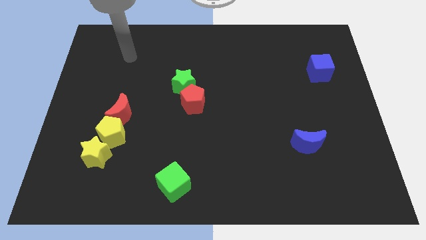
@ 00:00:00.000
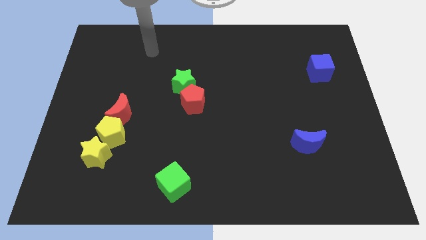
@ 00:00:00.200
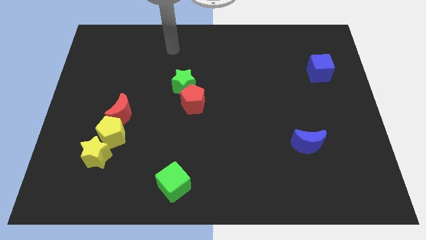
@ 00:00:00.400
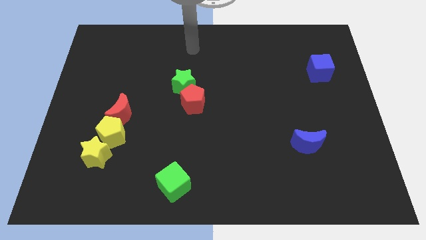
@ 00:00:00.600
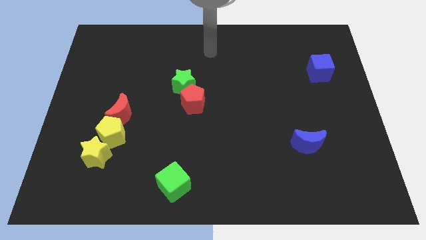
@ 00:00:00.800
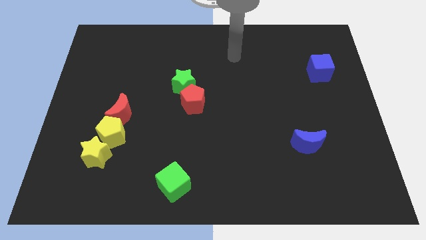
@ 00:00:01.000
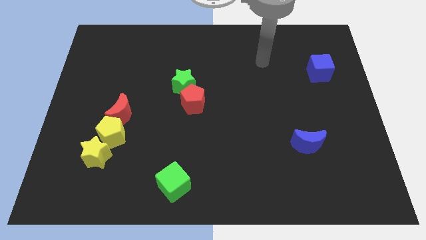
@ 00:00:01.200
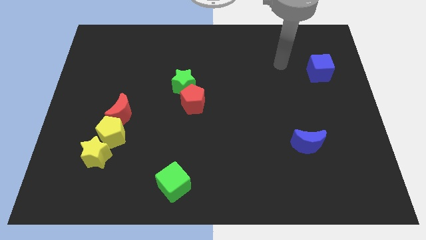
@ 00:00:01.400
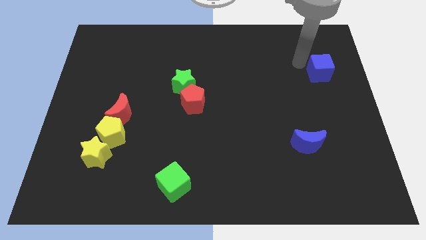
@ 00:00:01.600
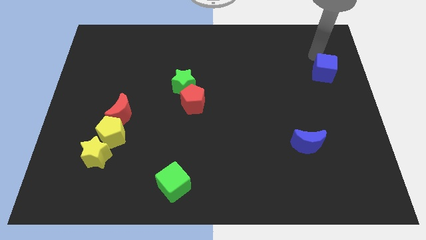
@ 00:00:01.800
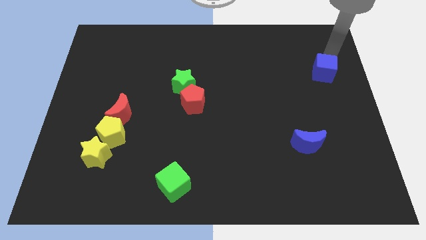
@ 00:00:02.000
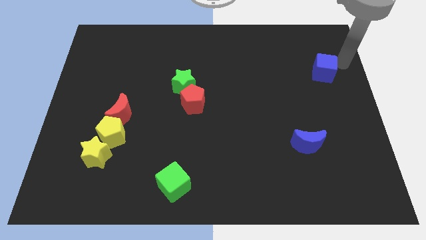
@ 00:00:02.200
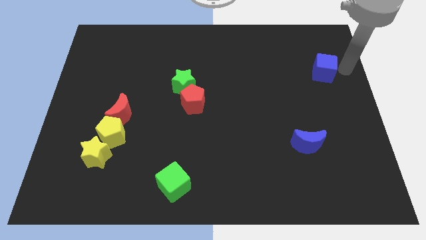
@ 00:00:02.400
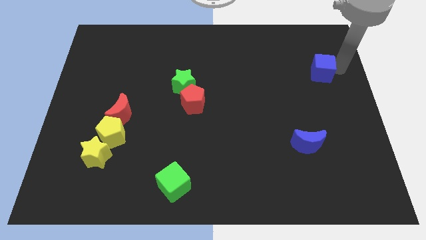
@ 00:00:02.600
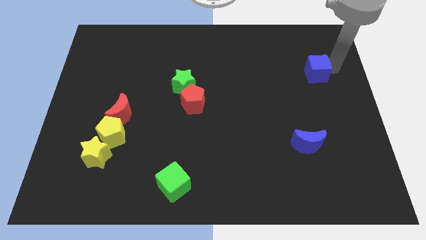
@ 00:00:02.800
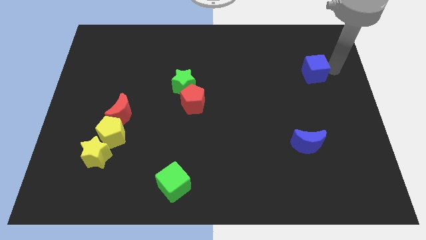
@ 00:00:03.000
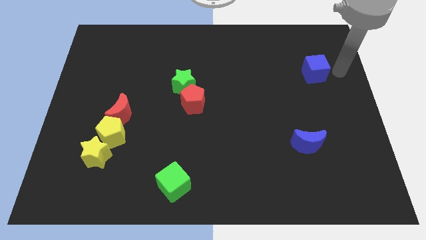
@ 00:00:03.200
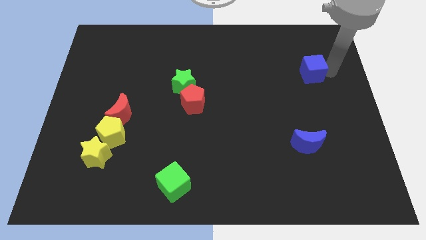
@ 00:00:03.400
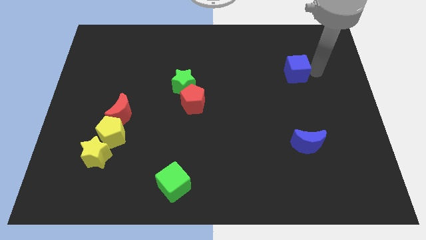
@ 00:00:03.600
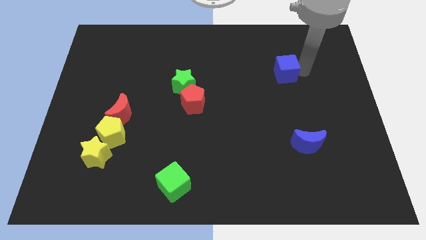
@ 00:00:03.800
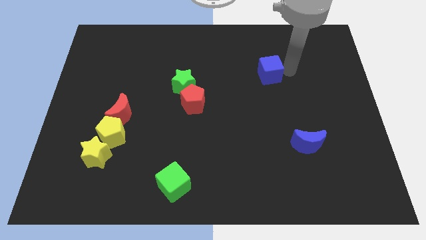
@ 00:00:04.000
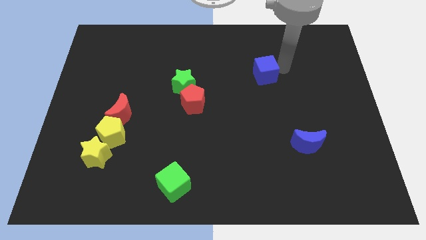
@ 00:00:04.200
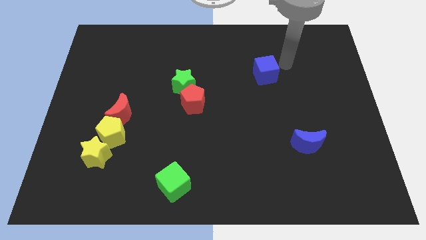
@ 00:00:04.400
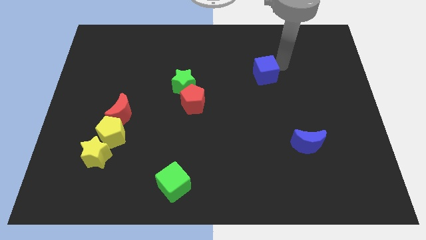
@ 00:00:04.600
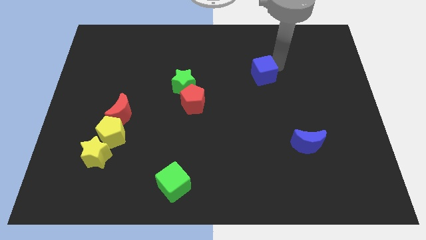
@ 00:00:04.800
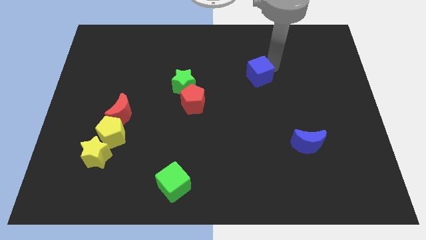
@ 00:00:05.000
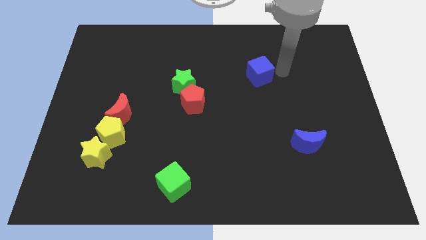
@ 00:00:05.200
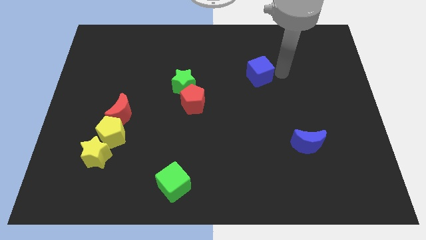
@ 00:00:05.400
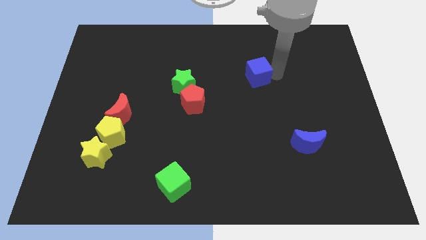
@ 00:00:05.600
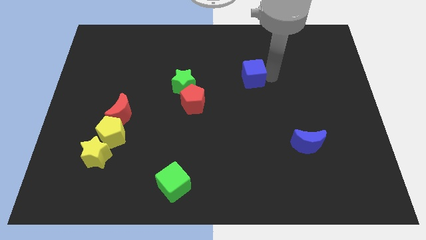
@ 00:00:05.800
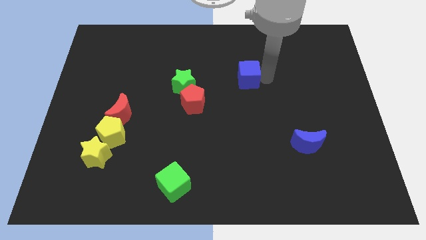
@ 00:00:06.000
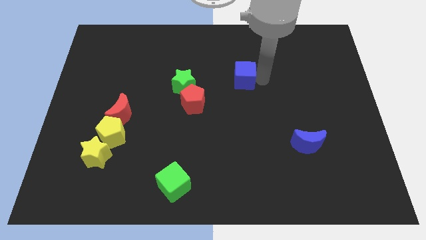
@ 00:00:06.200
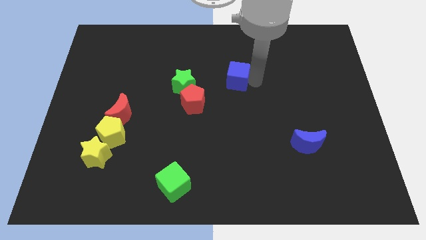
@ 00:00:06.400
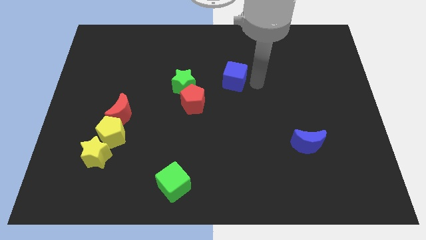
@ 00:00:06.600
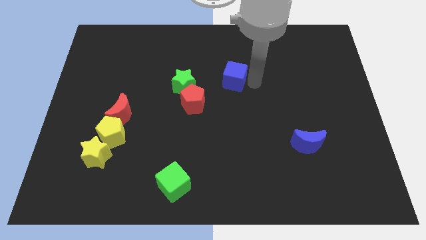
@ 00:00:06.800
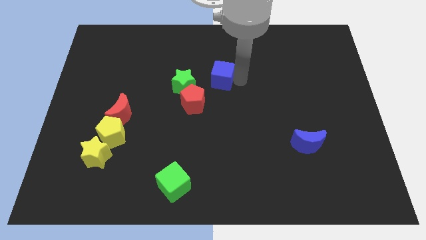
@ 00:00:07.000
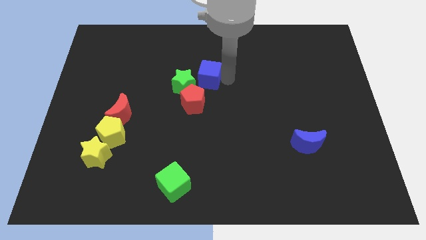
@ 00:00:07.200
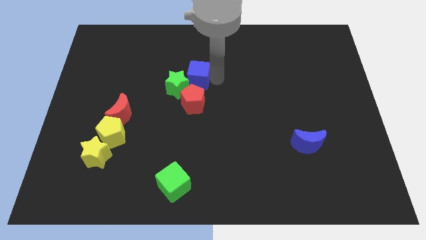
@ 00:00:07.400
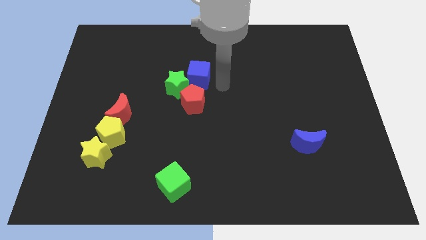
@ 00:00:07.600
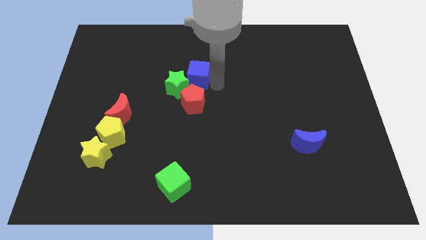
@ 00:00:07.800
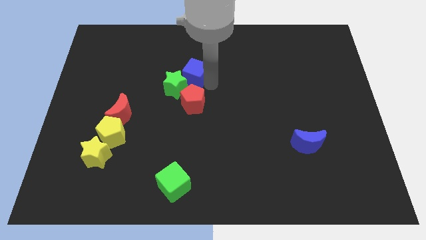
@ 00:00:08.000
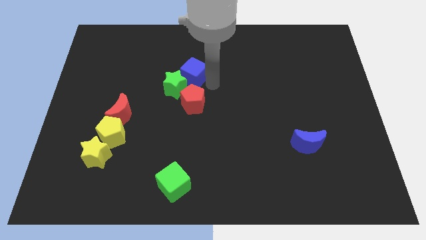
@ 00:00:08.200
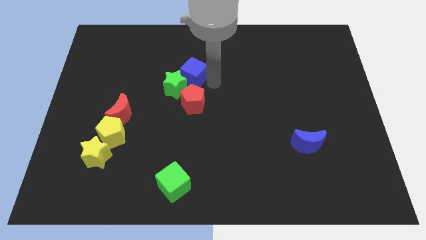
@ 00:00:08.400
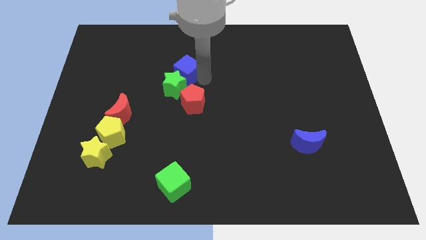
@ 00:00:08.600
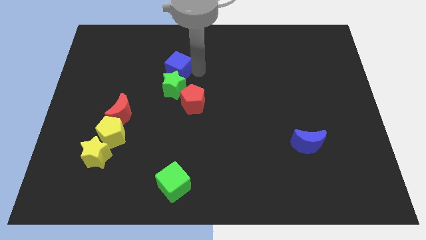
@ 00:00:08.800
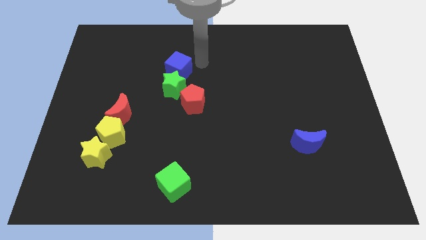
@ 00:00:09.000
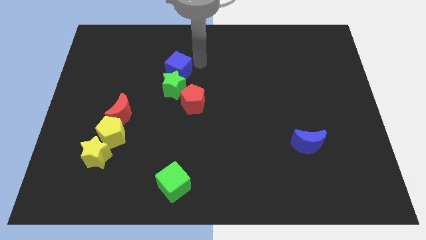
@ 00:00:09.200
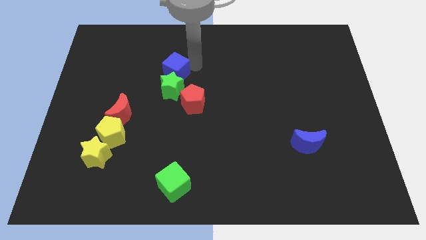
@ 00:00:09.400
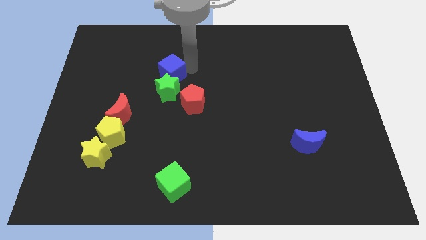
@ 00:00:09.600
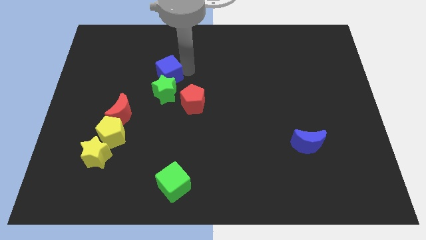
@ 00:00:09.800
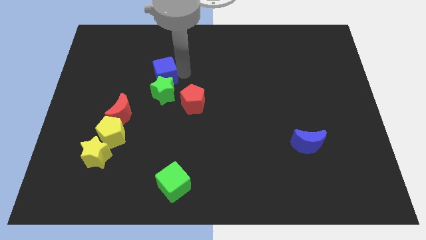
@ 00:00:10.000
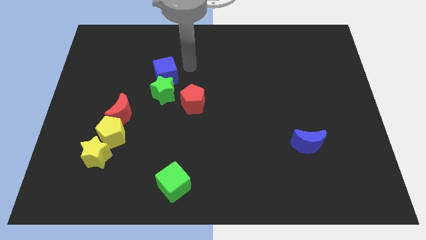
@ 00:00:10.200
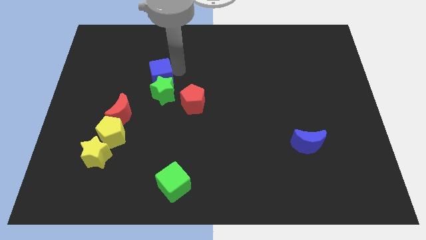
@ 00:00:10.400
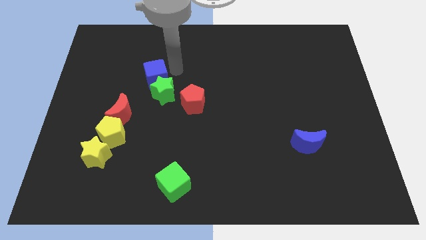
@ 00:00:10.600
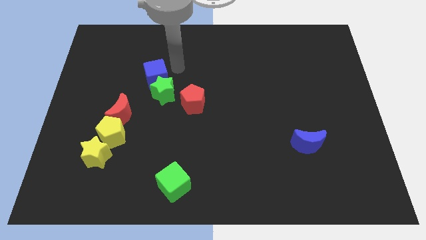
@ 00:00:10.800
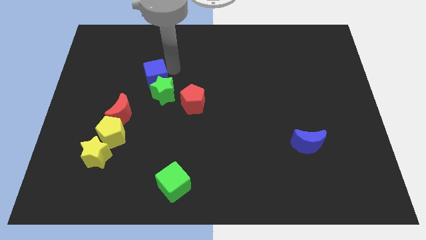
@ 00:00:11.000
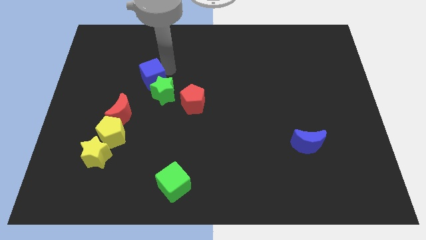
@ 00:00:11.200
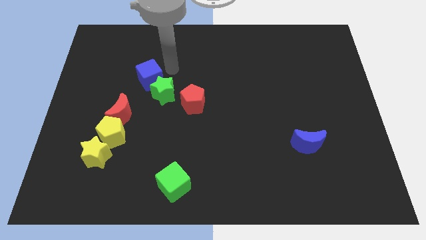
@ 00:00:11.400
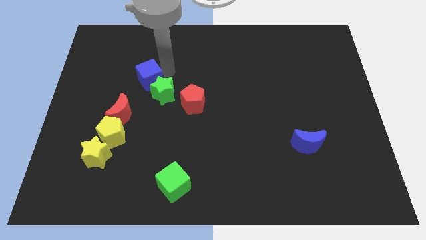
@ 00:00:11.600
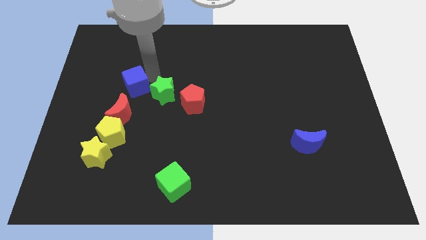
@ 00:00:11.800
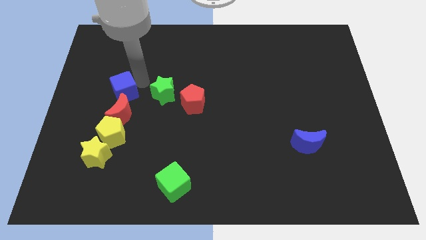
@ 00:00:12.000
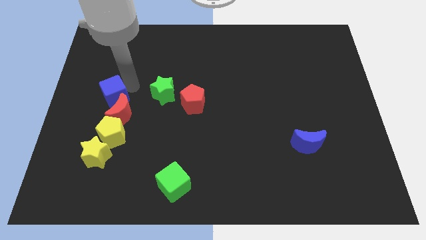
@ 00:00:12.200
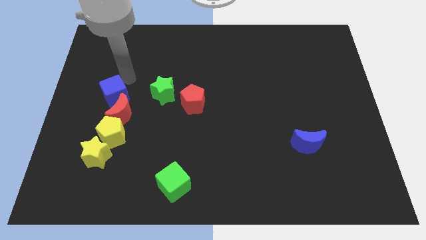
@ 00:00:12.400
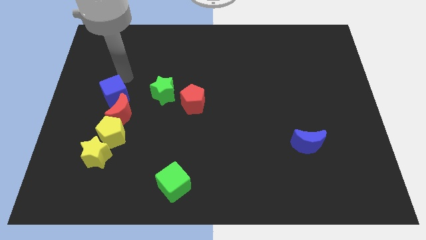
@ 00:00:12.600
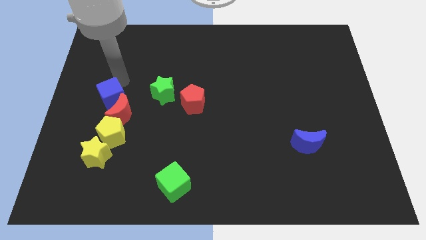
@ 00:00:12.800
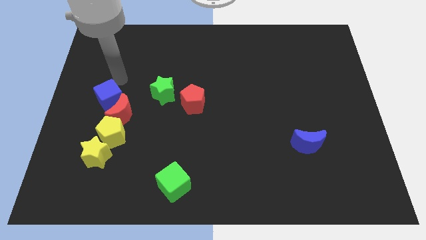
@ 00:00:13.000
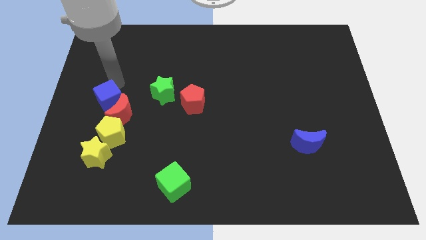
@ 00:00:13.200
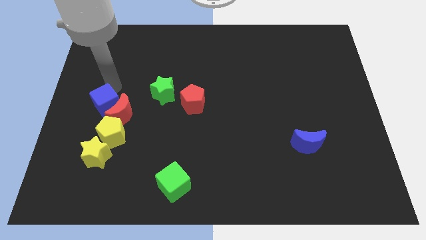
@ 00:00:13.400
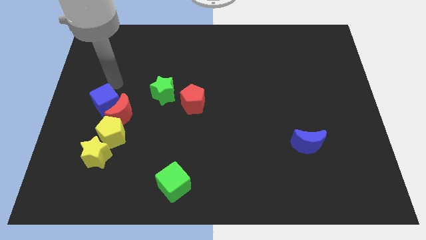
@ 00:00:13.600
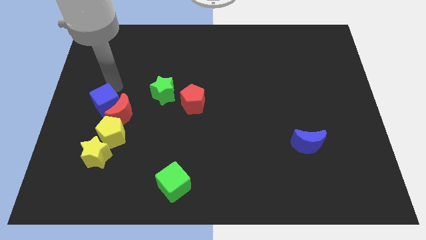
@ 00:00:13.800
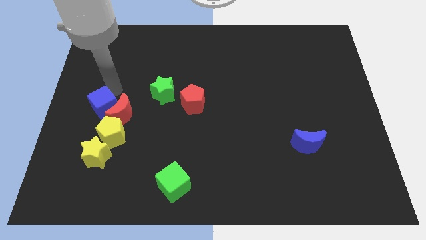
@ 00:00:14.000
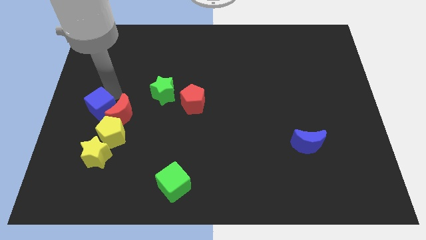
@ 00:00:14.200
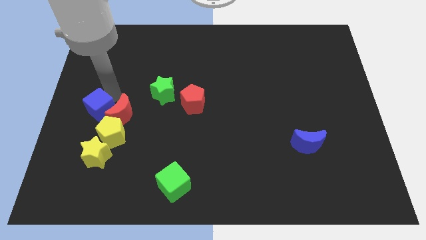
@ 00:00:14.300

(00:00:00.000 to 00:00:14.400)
slide the blue cube to the bottom left of the red moon
